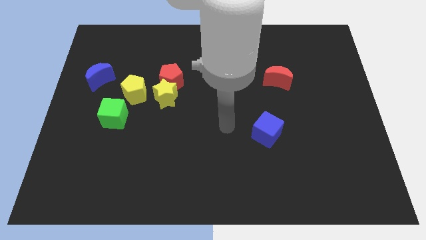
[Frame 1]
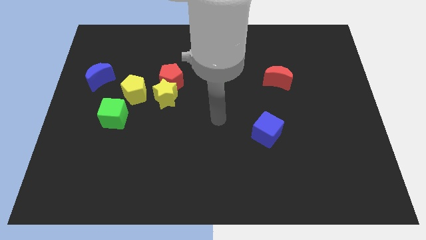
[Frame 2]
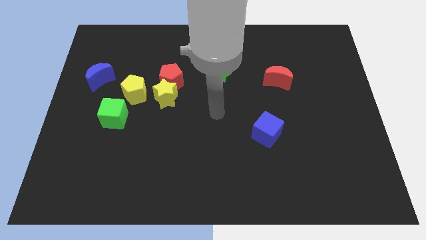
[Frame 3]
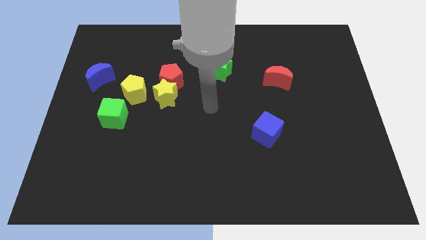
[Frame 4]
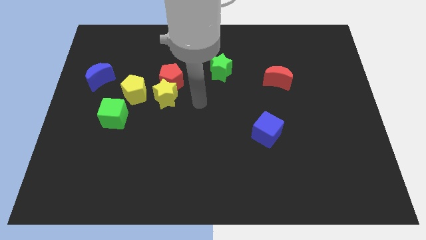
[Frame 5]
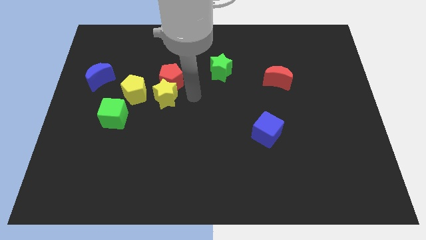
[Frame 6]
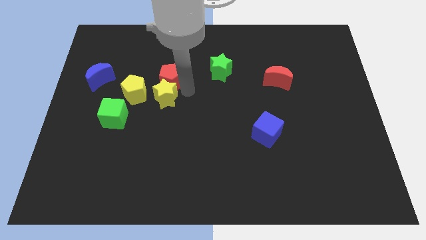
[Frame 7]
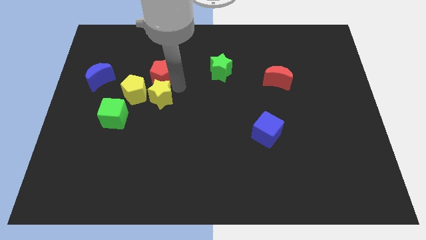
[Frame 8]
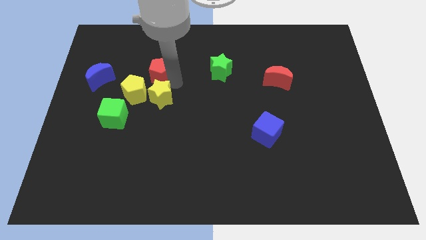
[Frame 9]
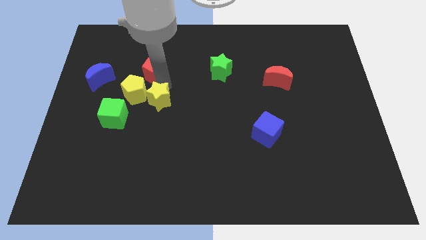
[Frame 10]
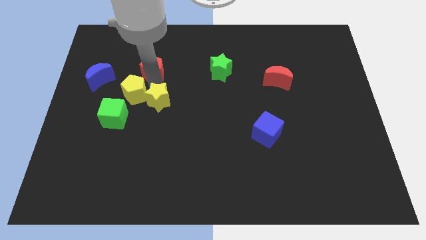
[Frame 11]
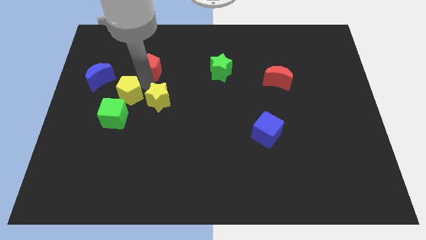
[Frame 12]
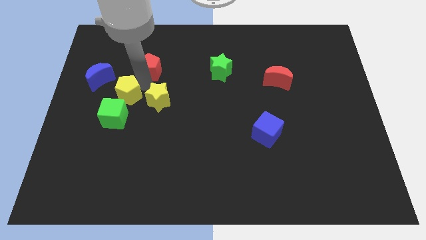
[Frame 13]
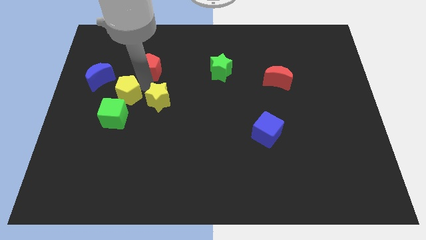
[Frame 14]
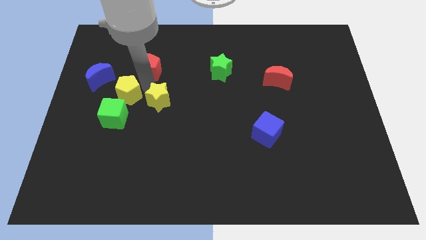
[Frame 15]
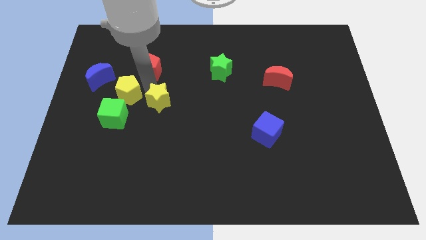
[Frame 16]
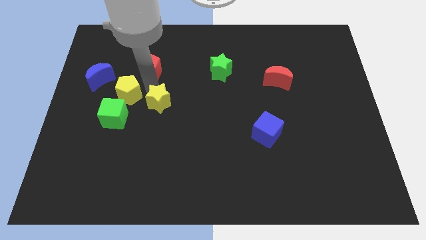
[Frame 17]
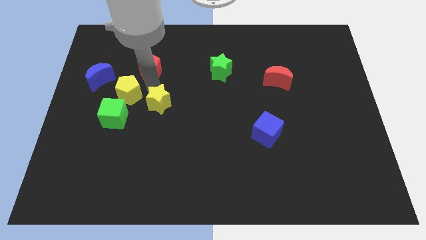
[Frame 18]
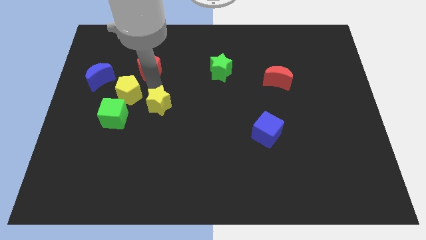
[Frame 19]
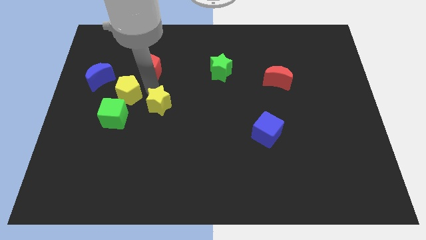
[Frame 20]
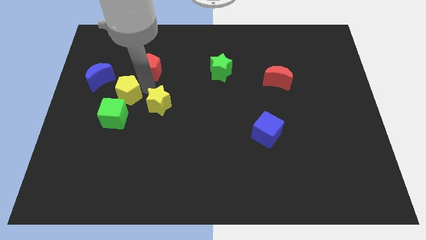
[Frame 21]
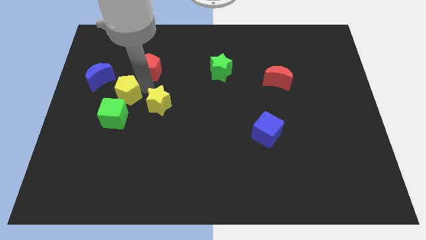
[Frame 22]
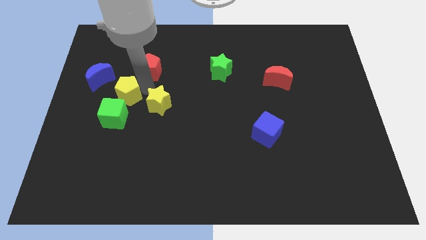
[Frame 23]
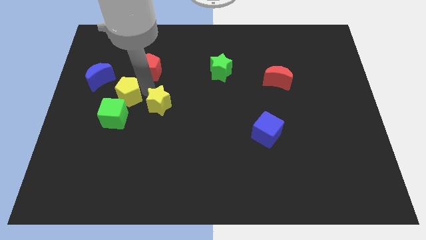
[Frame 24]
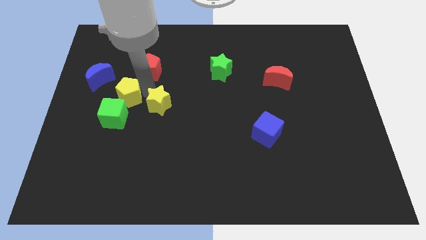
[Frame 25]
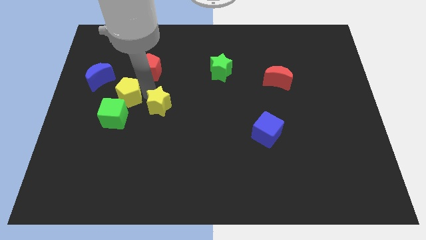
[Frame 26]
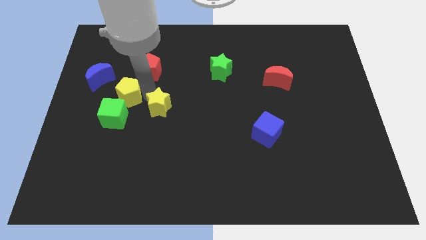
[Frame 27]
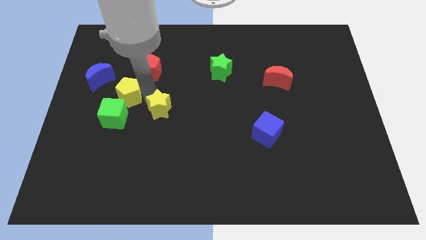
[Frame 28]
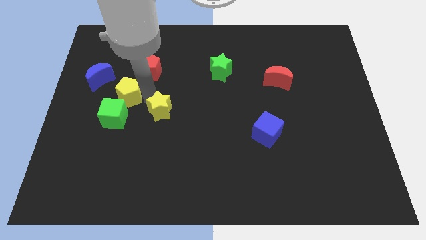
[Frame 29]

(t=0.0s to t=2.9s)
separate the yellow star from the red pentagon and yellow pentagon

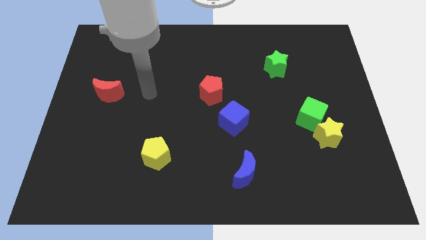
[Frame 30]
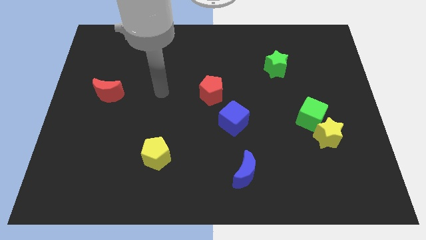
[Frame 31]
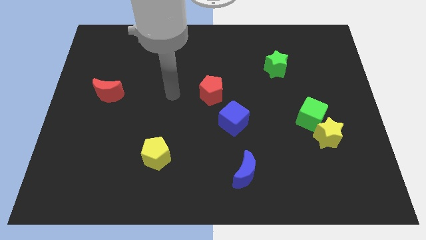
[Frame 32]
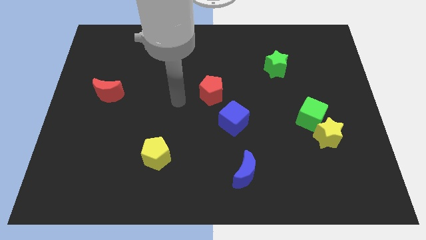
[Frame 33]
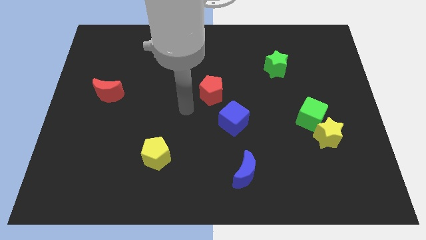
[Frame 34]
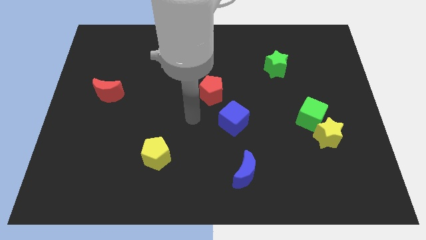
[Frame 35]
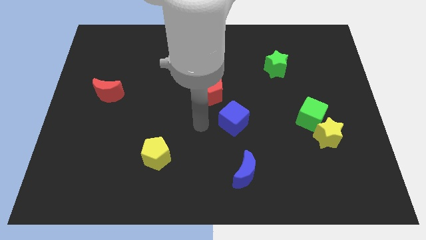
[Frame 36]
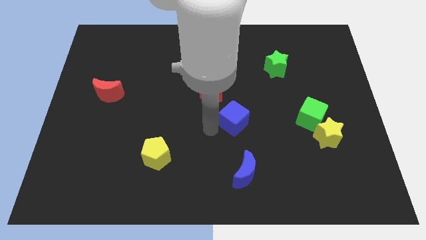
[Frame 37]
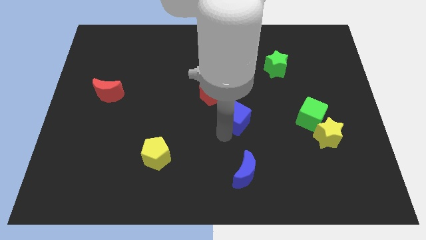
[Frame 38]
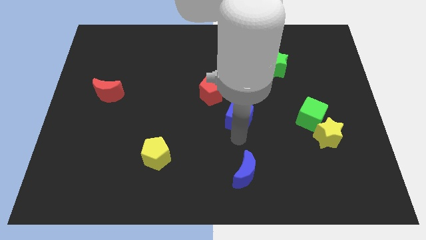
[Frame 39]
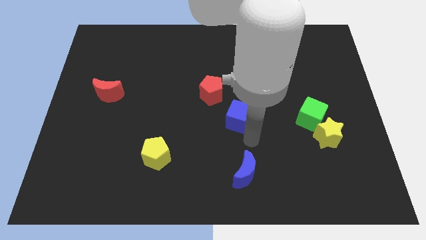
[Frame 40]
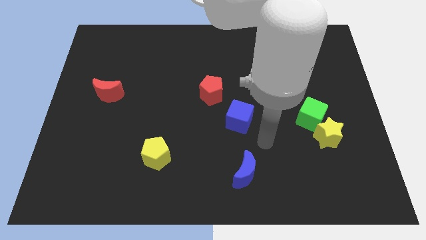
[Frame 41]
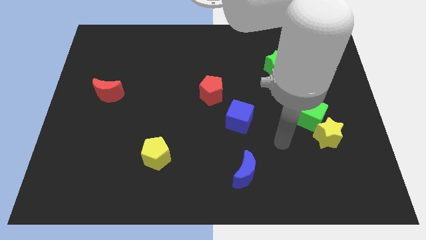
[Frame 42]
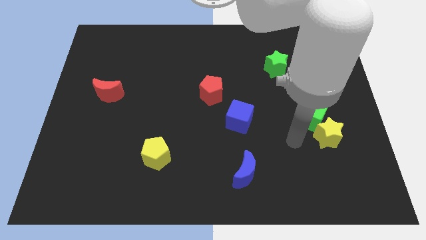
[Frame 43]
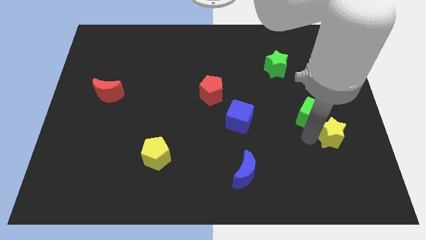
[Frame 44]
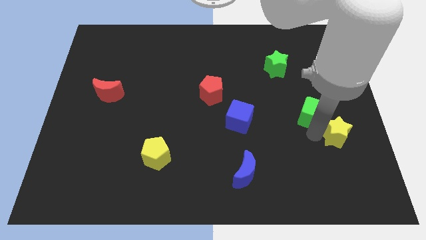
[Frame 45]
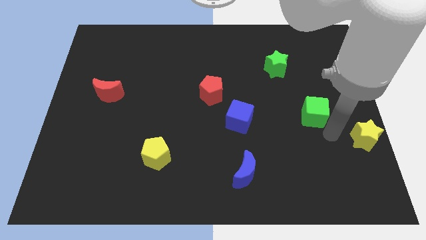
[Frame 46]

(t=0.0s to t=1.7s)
separate the green cube from the yellow star

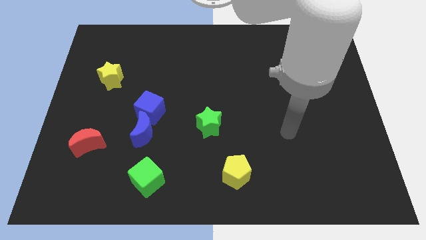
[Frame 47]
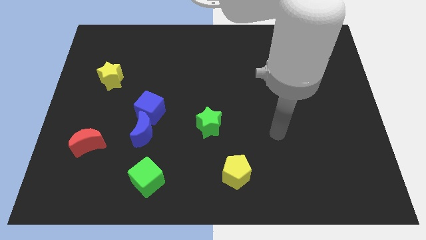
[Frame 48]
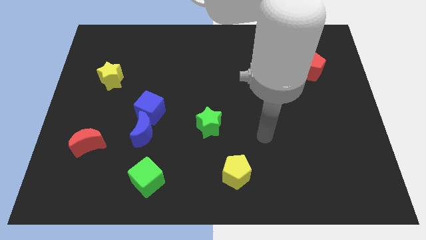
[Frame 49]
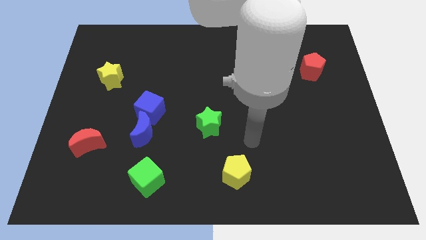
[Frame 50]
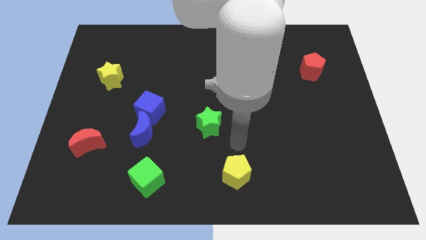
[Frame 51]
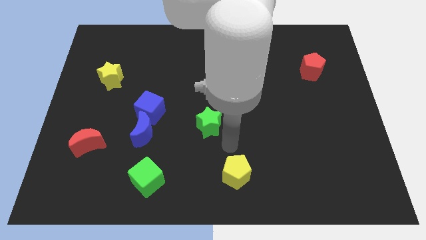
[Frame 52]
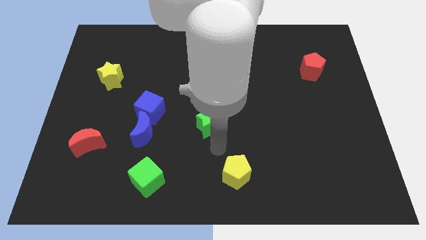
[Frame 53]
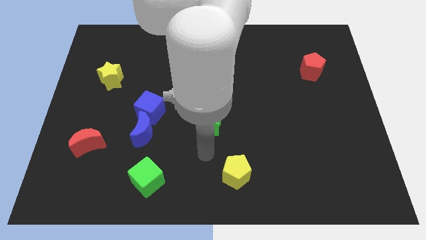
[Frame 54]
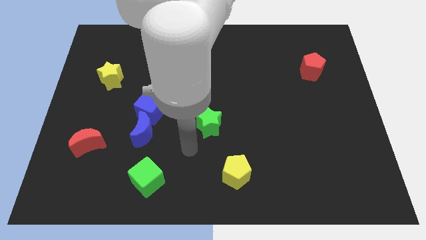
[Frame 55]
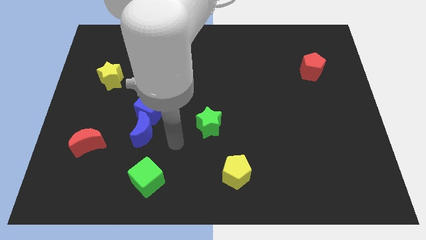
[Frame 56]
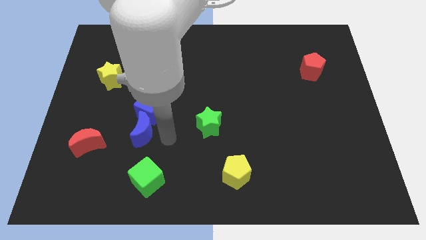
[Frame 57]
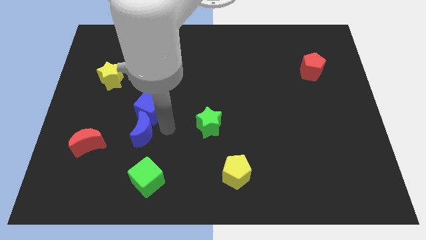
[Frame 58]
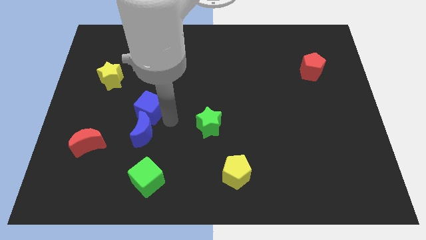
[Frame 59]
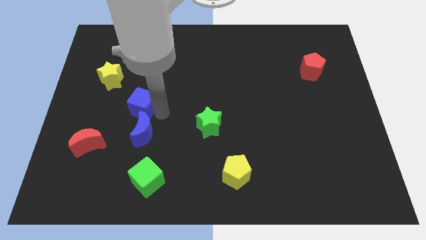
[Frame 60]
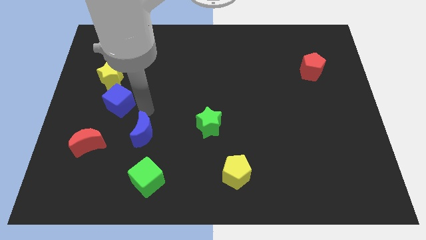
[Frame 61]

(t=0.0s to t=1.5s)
move the blue moon away from the blue cube

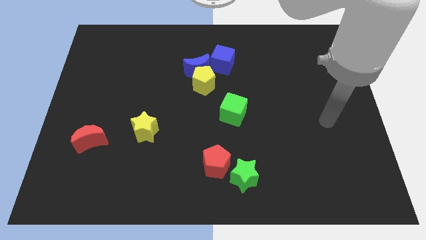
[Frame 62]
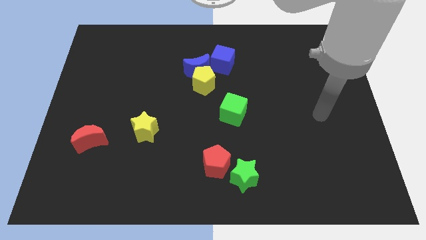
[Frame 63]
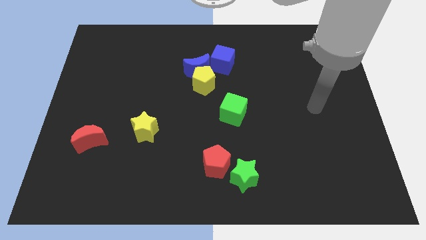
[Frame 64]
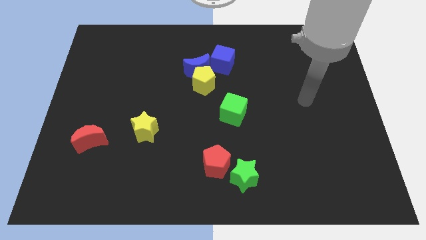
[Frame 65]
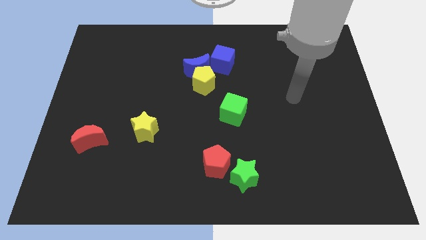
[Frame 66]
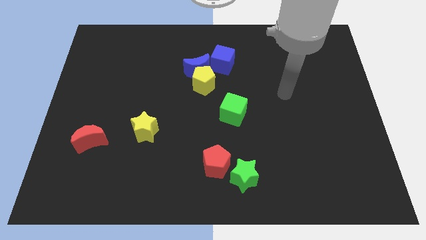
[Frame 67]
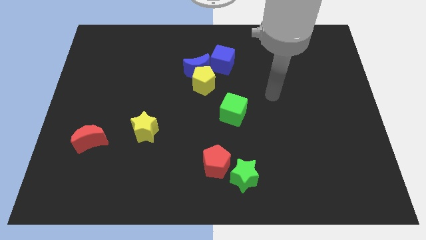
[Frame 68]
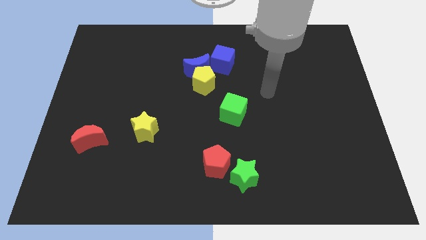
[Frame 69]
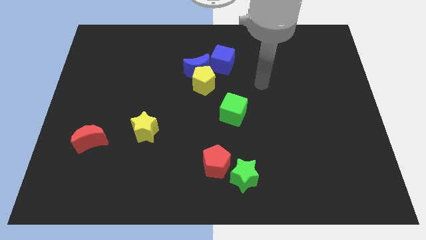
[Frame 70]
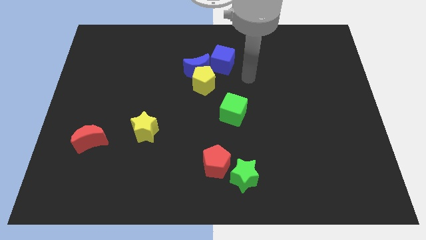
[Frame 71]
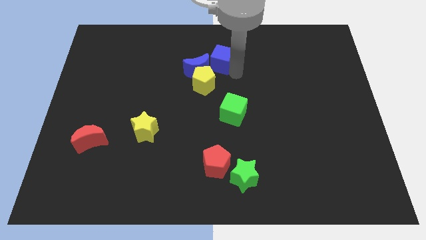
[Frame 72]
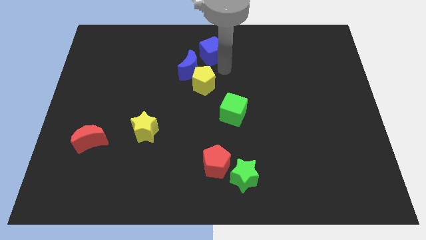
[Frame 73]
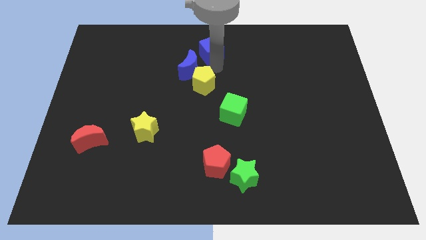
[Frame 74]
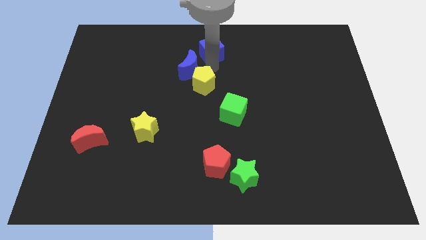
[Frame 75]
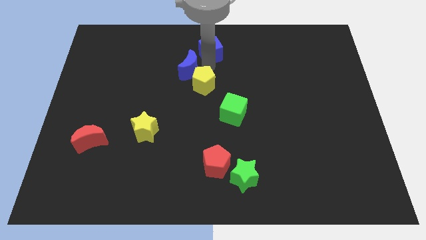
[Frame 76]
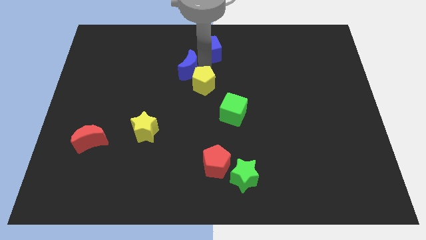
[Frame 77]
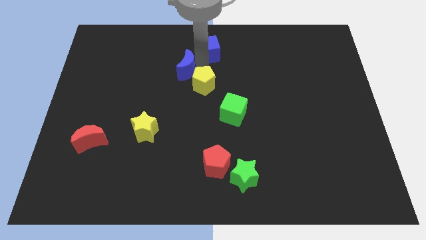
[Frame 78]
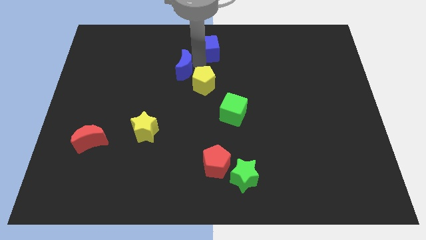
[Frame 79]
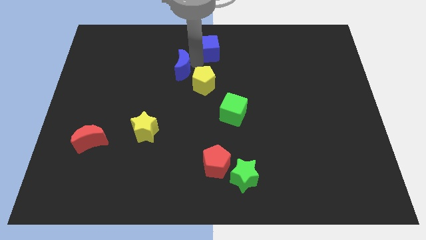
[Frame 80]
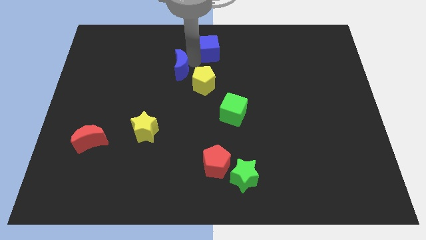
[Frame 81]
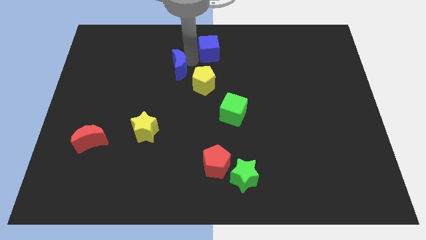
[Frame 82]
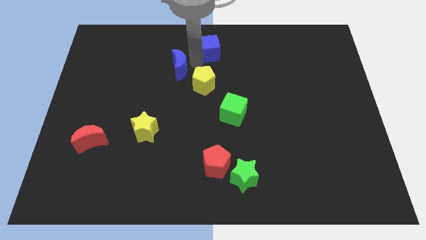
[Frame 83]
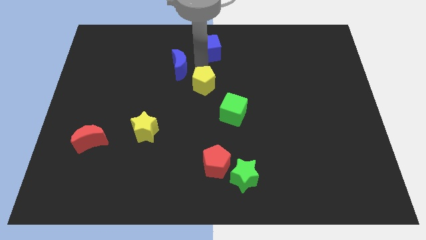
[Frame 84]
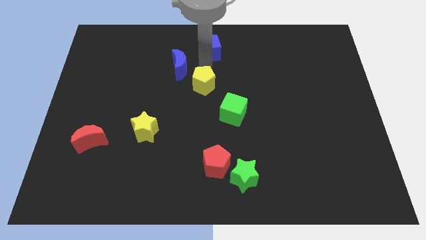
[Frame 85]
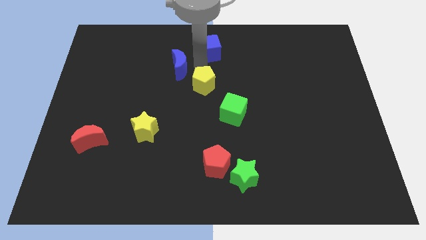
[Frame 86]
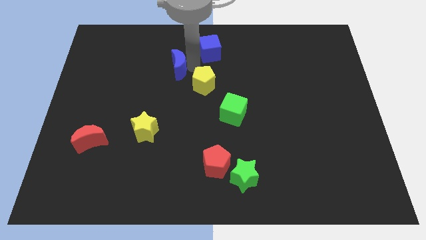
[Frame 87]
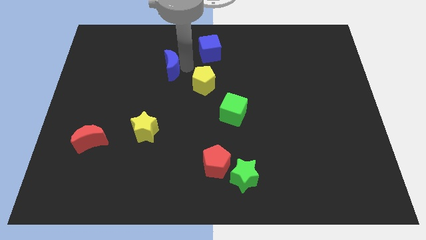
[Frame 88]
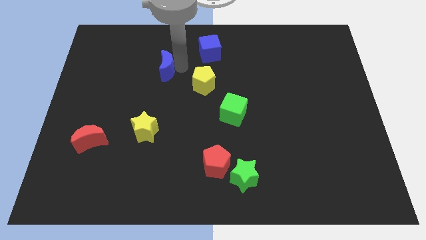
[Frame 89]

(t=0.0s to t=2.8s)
move the blue moon away from the yellow pentagon and blue cube

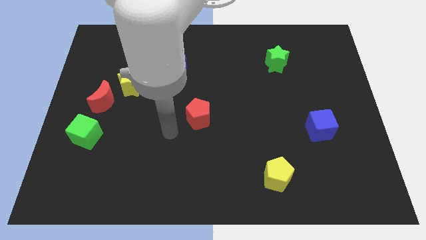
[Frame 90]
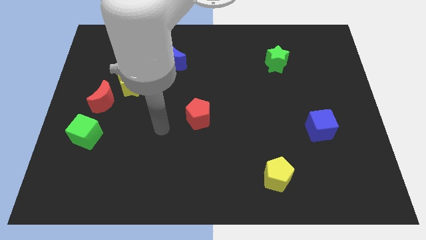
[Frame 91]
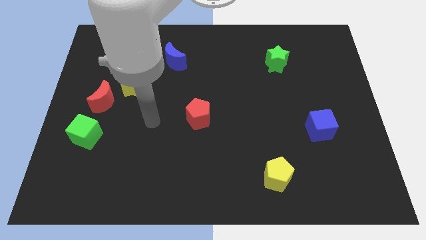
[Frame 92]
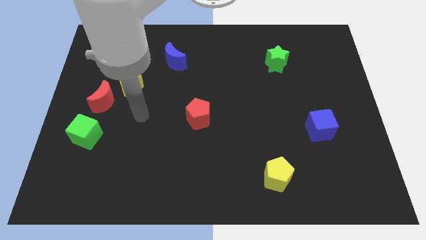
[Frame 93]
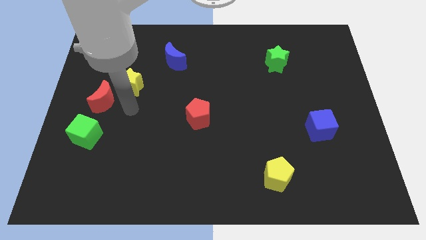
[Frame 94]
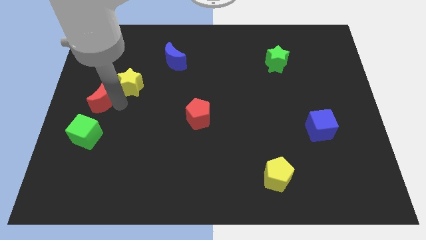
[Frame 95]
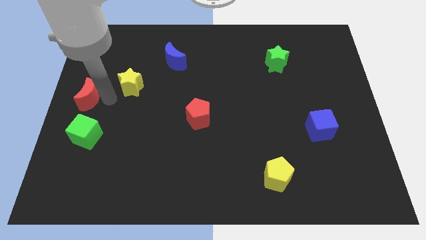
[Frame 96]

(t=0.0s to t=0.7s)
pull the yellow star apart from the red moon
